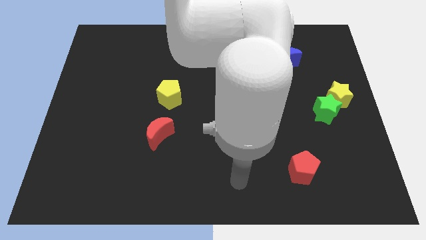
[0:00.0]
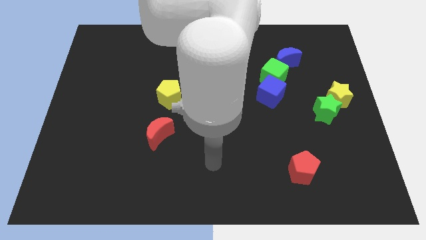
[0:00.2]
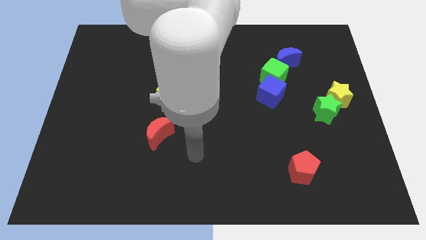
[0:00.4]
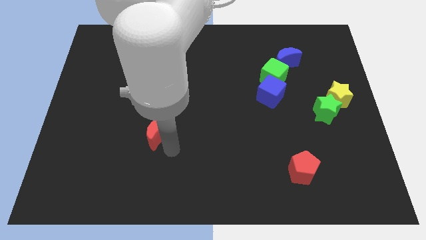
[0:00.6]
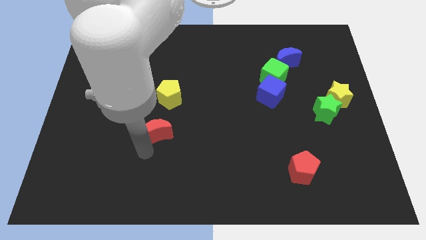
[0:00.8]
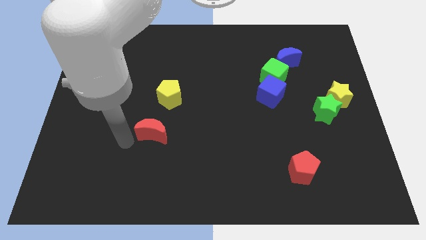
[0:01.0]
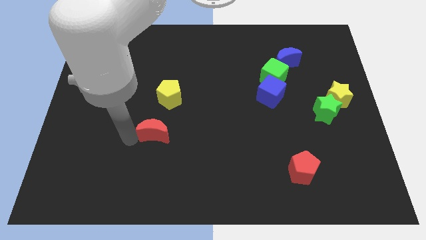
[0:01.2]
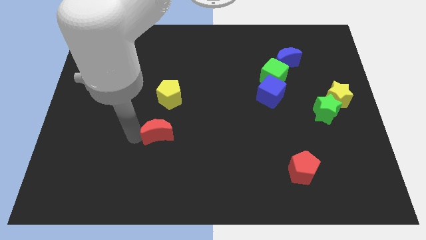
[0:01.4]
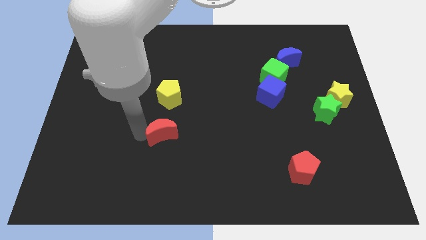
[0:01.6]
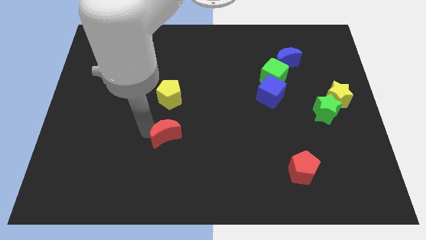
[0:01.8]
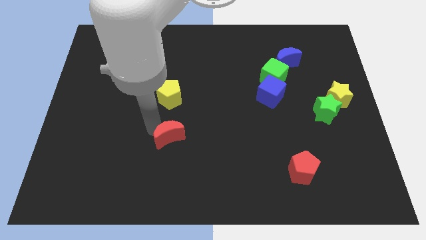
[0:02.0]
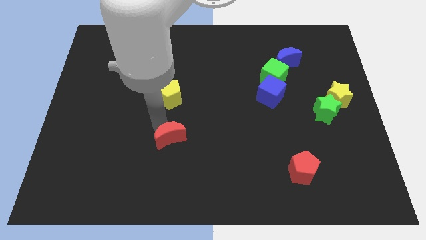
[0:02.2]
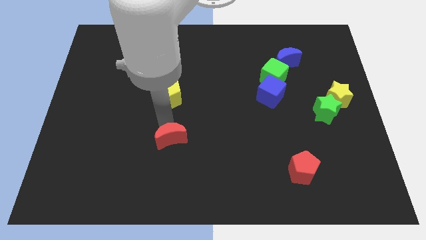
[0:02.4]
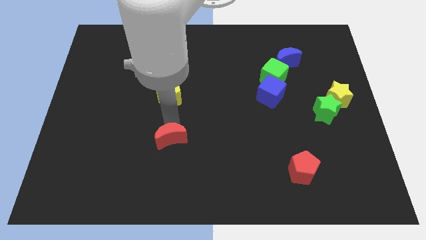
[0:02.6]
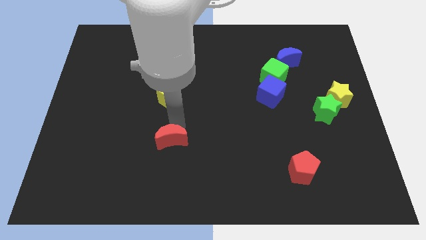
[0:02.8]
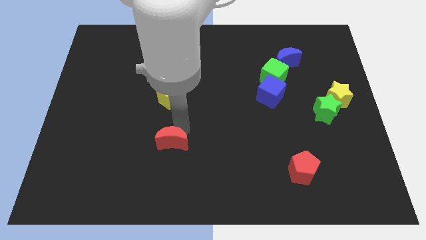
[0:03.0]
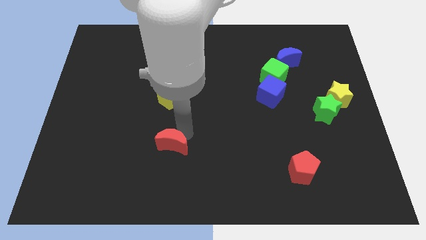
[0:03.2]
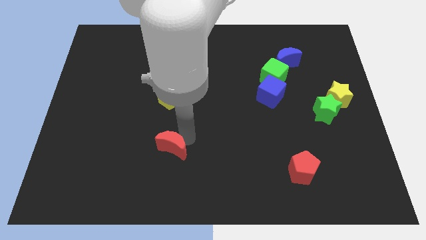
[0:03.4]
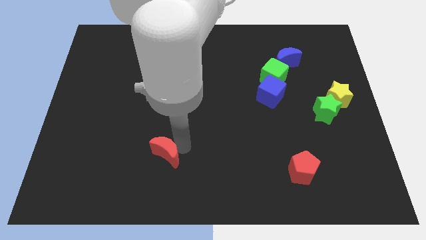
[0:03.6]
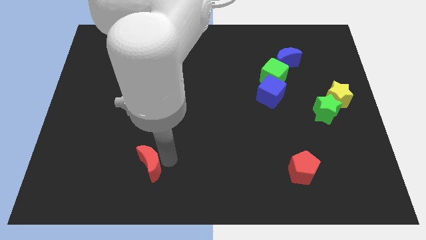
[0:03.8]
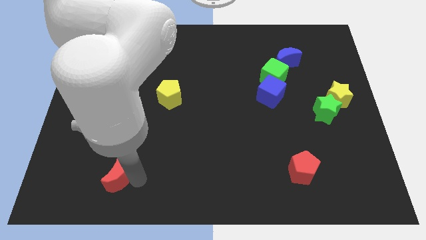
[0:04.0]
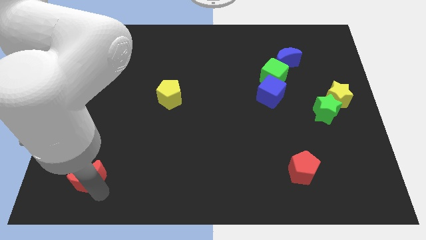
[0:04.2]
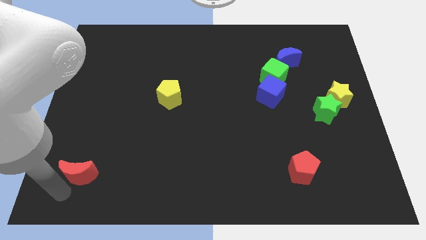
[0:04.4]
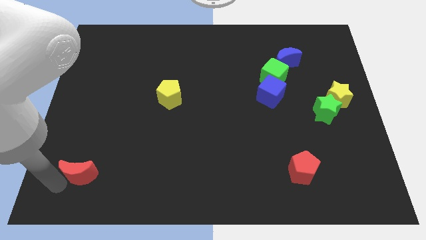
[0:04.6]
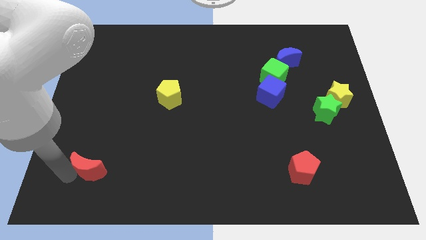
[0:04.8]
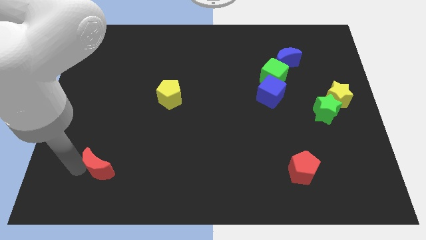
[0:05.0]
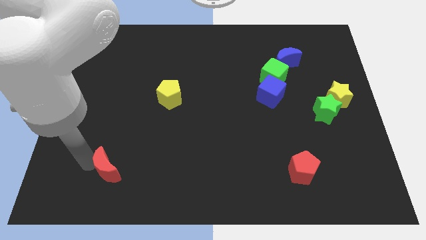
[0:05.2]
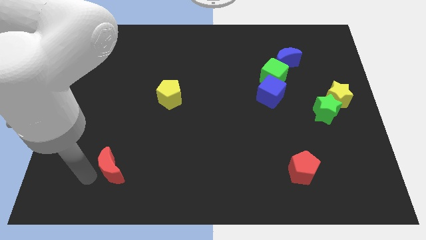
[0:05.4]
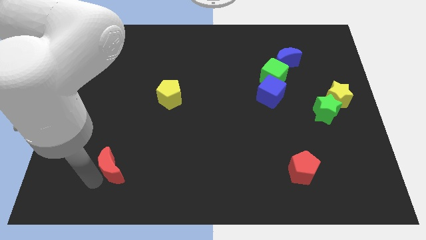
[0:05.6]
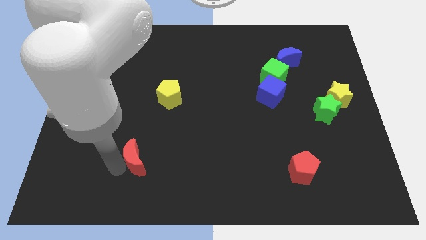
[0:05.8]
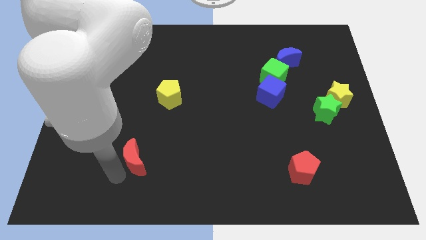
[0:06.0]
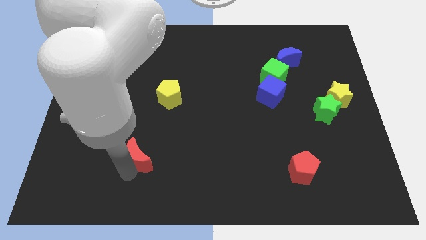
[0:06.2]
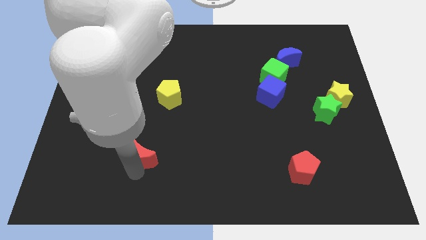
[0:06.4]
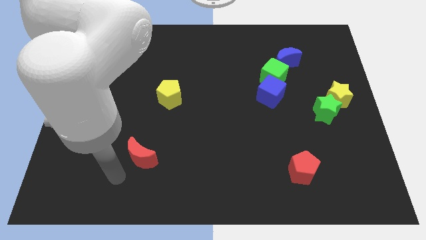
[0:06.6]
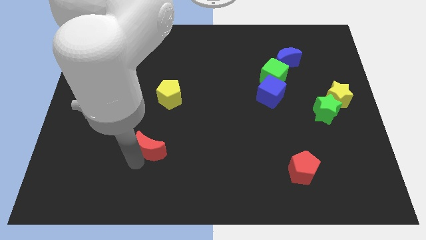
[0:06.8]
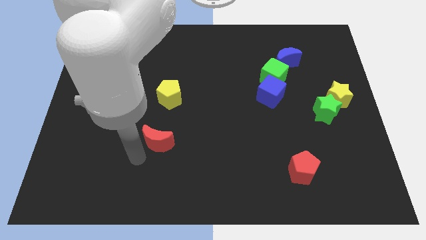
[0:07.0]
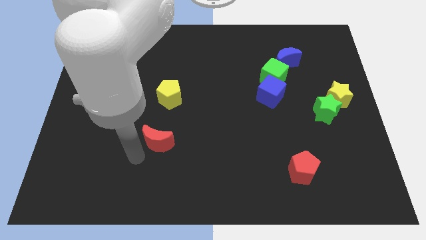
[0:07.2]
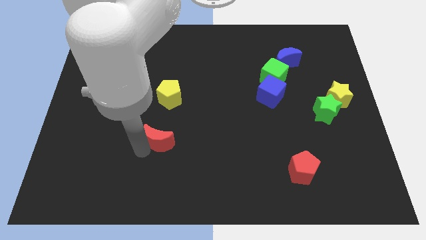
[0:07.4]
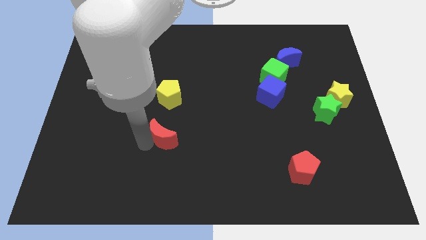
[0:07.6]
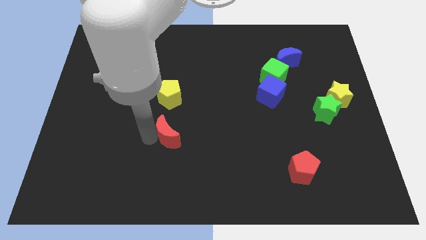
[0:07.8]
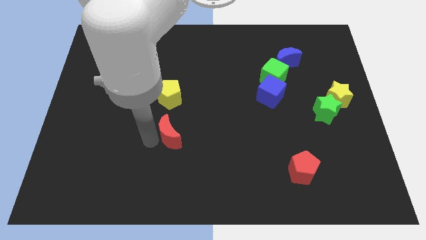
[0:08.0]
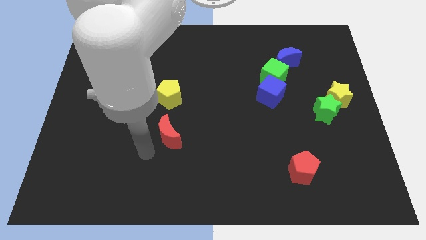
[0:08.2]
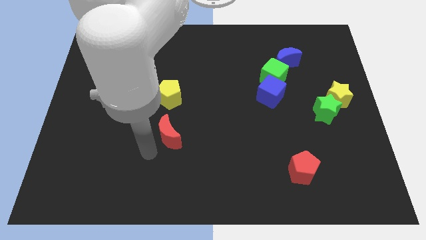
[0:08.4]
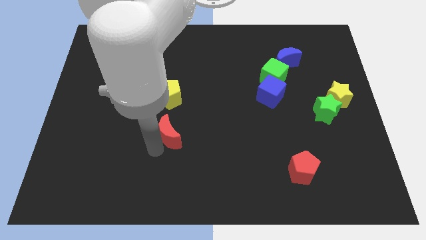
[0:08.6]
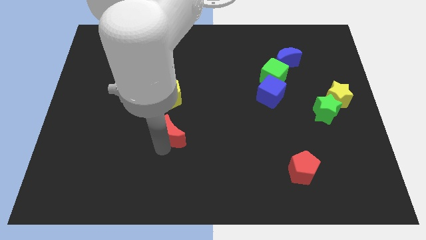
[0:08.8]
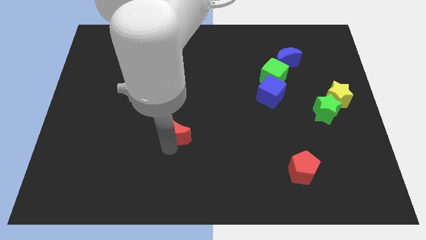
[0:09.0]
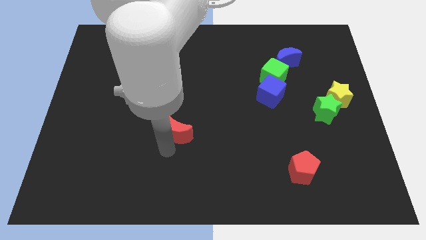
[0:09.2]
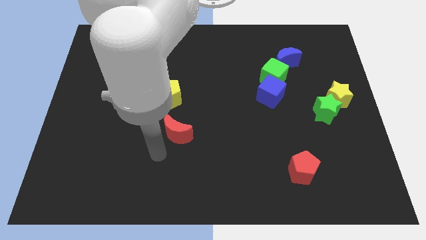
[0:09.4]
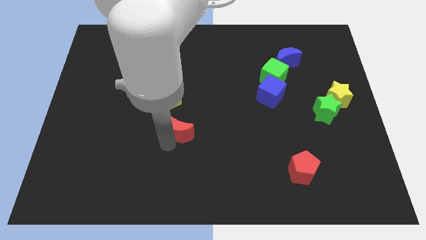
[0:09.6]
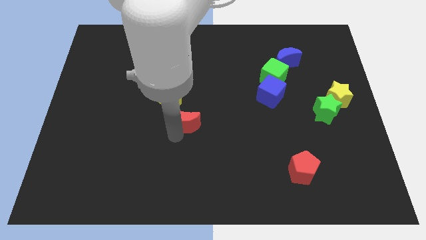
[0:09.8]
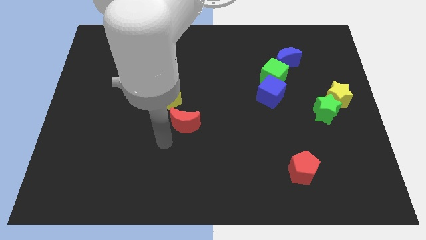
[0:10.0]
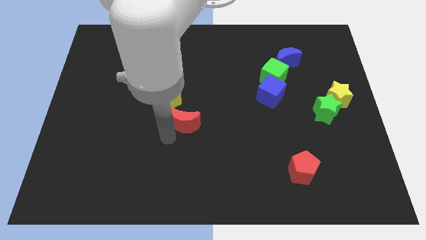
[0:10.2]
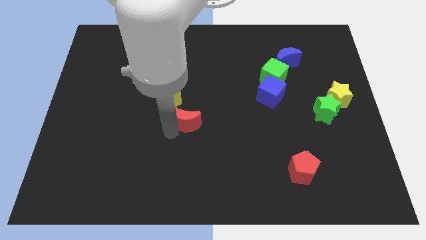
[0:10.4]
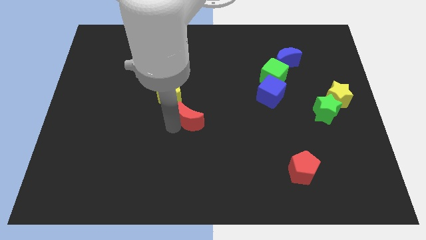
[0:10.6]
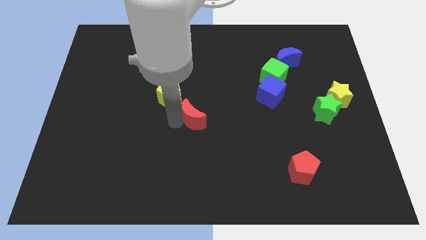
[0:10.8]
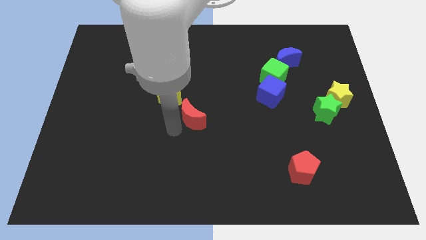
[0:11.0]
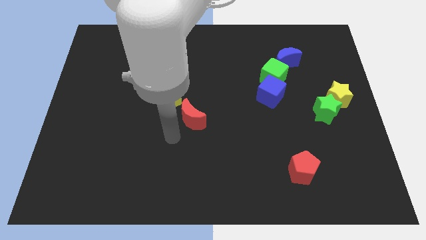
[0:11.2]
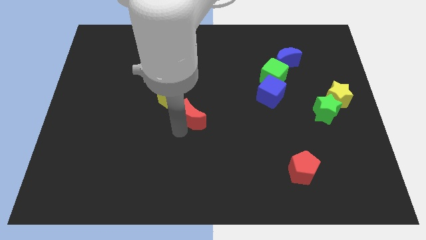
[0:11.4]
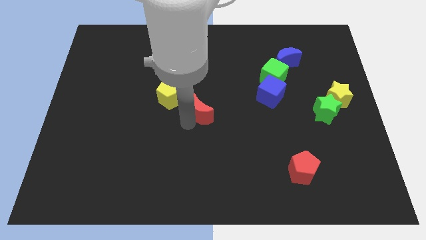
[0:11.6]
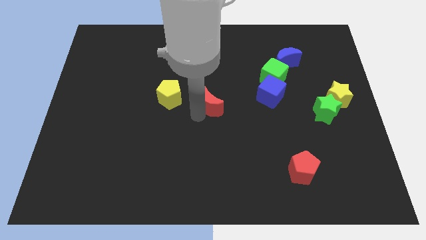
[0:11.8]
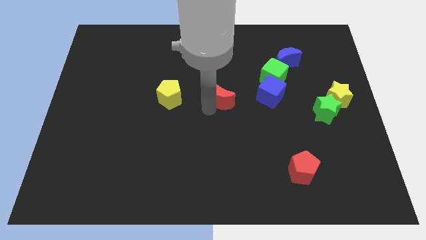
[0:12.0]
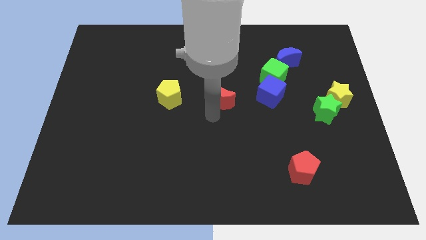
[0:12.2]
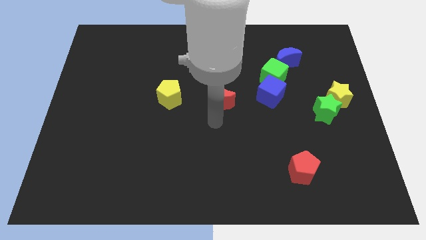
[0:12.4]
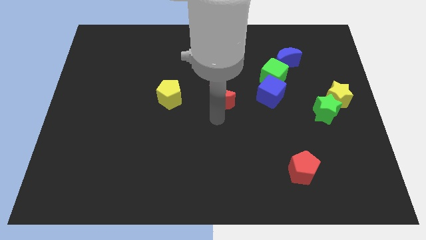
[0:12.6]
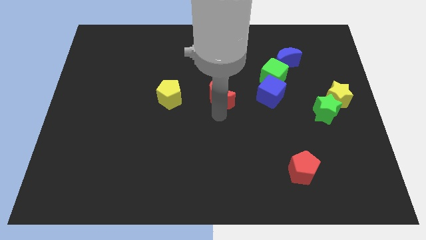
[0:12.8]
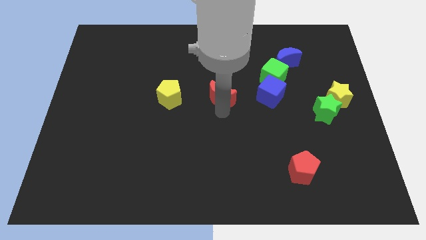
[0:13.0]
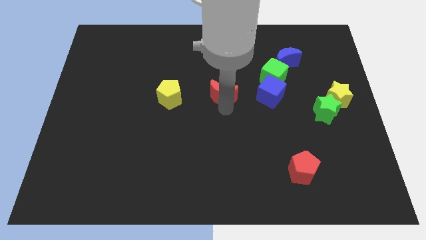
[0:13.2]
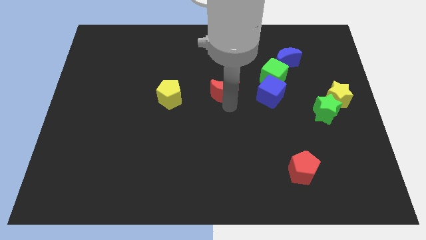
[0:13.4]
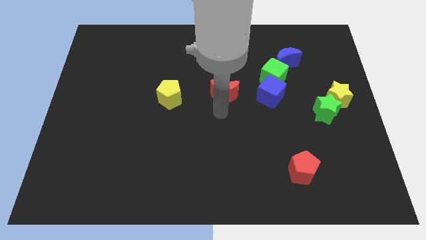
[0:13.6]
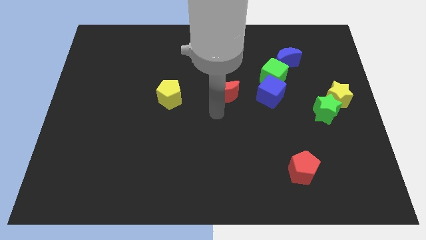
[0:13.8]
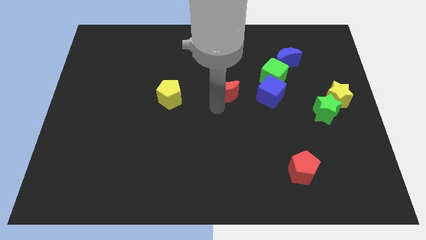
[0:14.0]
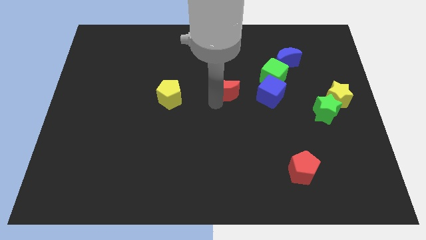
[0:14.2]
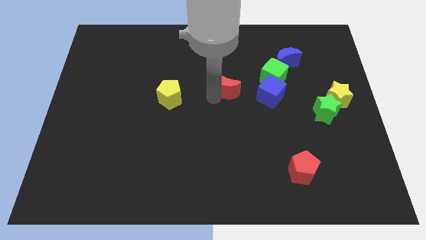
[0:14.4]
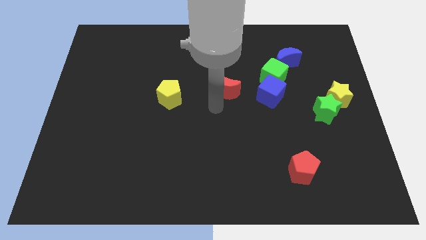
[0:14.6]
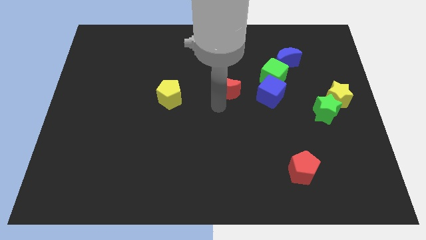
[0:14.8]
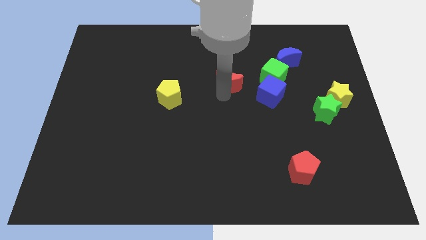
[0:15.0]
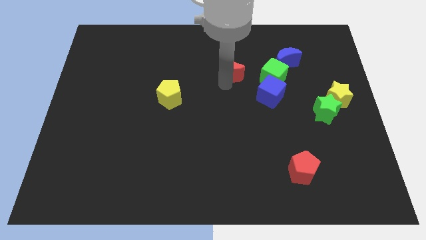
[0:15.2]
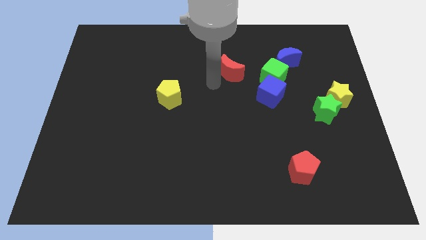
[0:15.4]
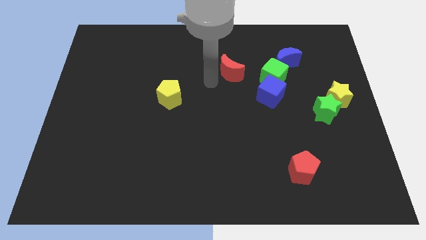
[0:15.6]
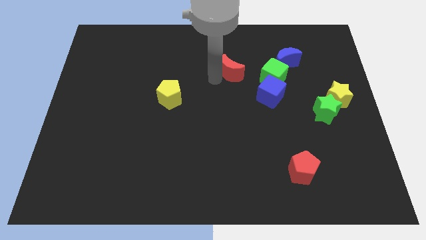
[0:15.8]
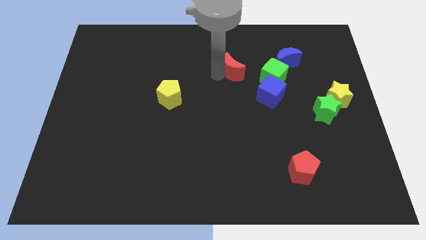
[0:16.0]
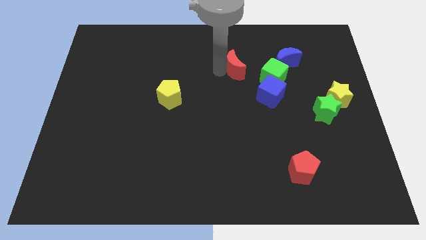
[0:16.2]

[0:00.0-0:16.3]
put the red moon to the top left of the green cube

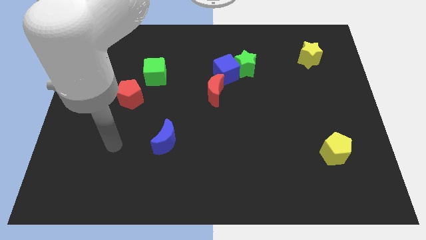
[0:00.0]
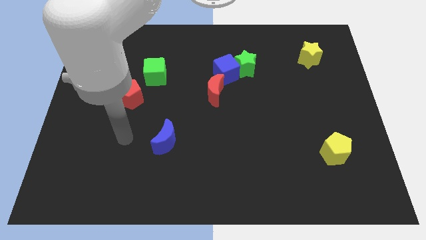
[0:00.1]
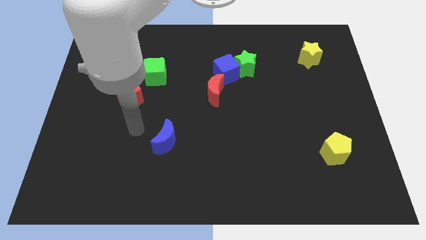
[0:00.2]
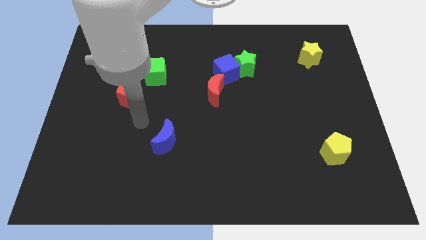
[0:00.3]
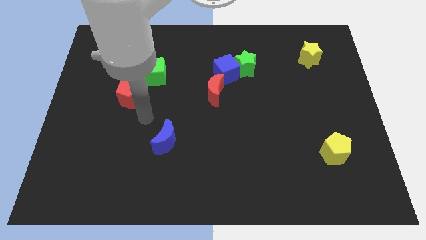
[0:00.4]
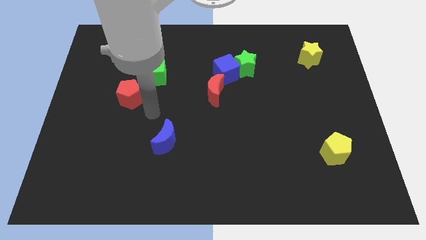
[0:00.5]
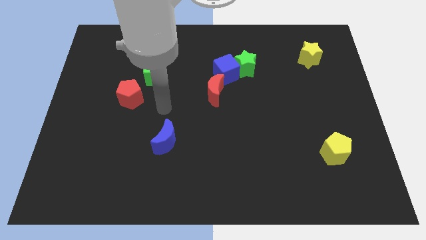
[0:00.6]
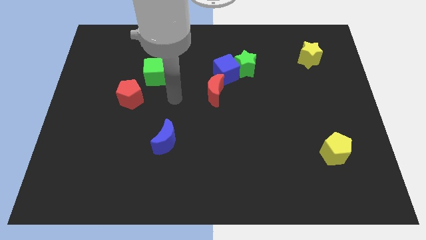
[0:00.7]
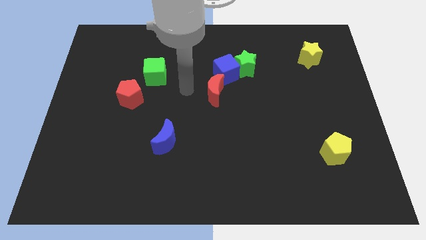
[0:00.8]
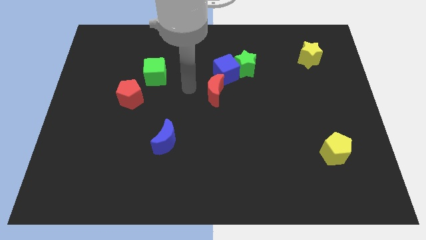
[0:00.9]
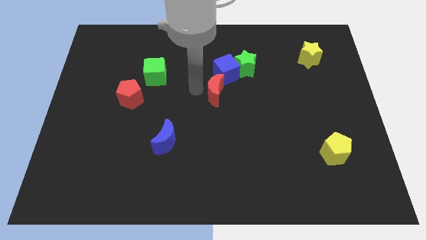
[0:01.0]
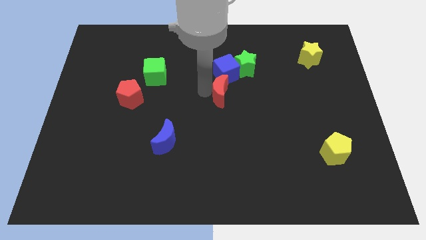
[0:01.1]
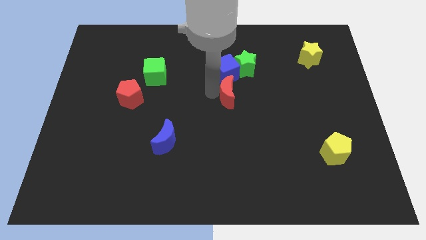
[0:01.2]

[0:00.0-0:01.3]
put the red moon to the bottom side of the green star
